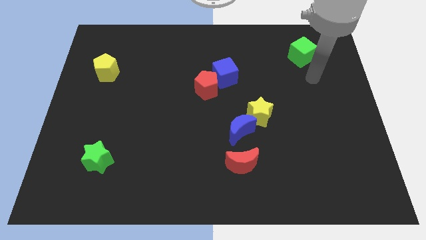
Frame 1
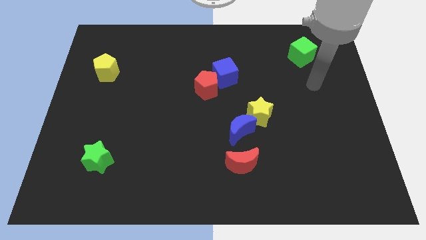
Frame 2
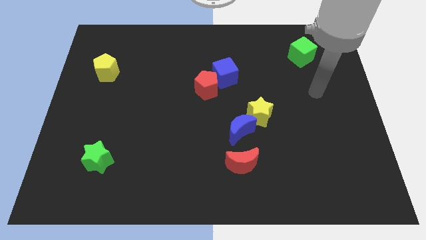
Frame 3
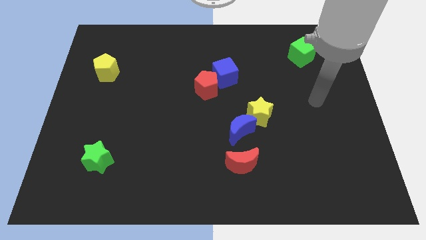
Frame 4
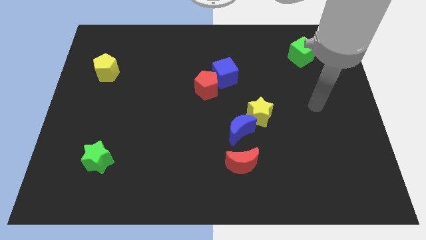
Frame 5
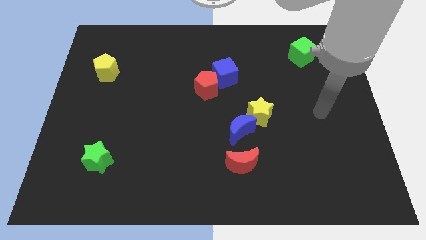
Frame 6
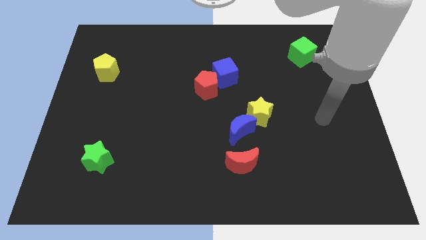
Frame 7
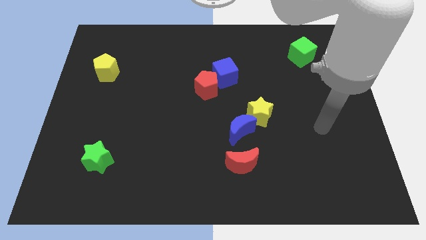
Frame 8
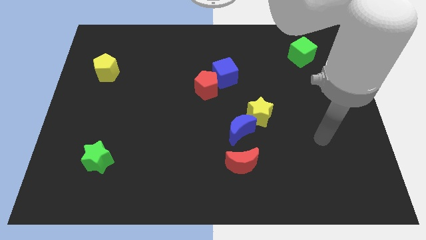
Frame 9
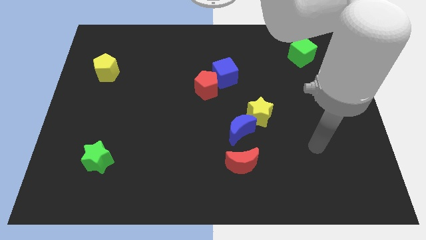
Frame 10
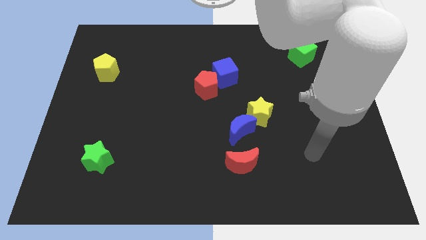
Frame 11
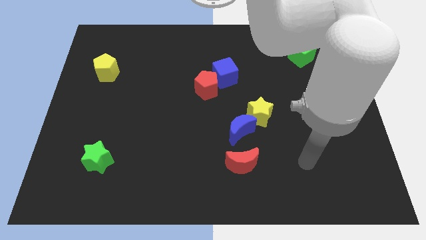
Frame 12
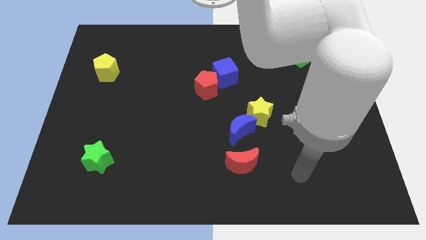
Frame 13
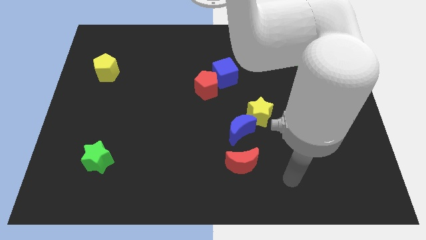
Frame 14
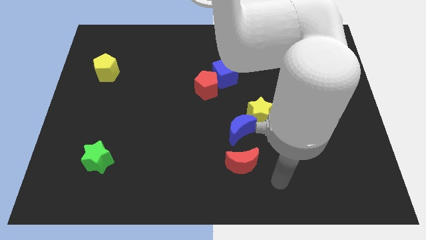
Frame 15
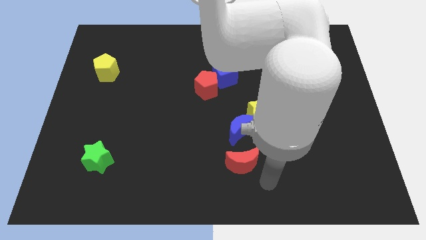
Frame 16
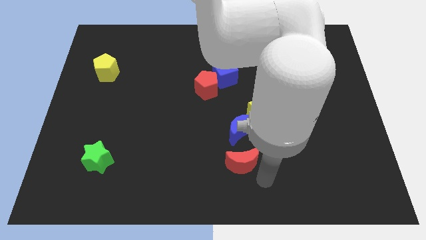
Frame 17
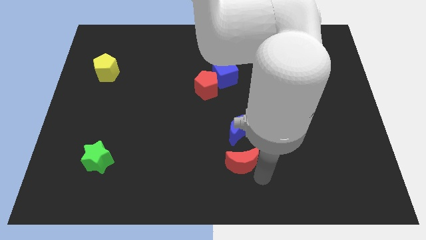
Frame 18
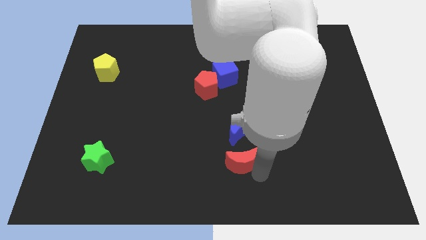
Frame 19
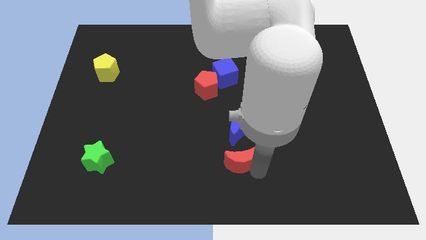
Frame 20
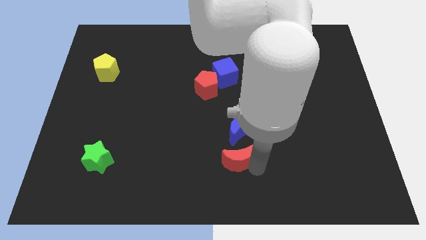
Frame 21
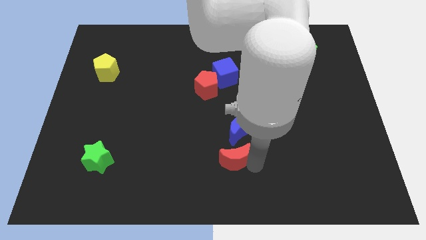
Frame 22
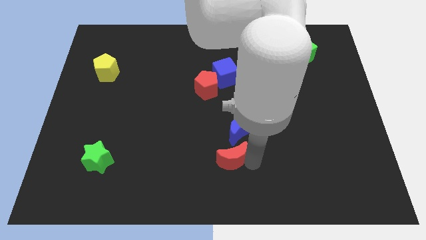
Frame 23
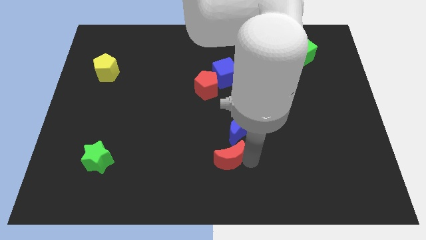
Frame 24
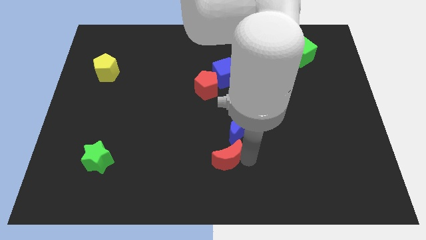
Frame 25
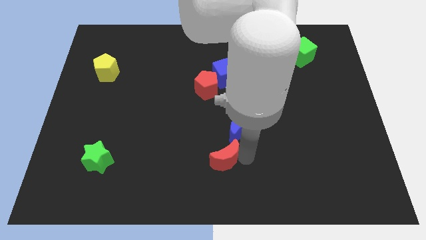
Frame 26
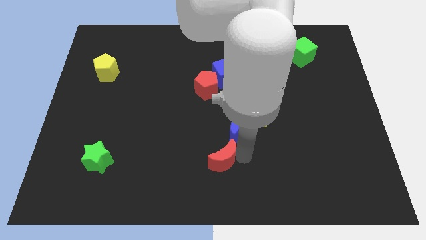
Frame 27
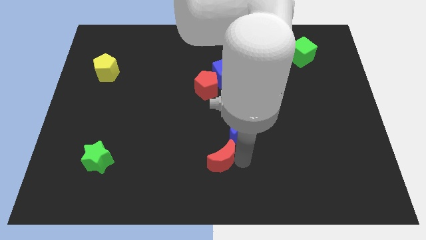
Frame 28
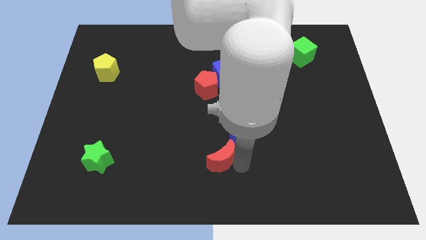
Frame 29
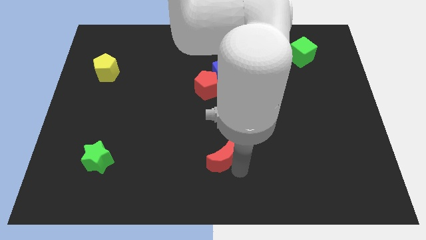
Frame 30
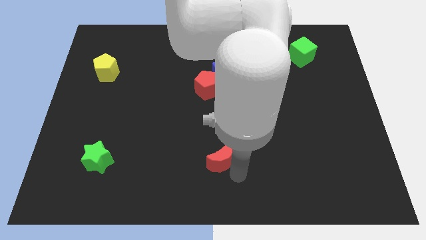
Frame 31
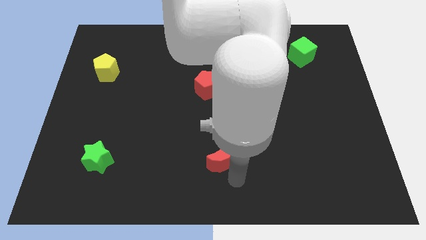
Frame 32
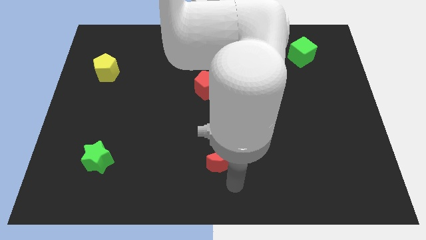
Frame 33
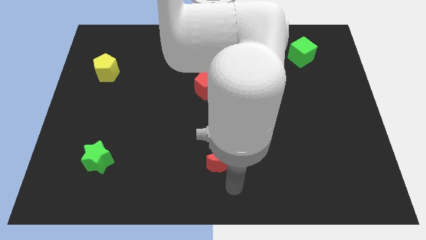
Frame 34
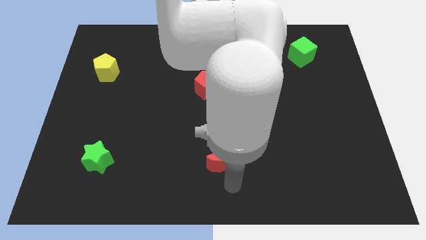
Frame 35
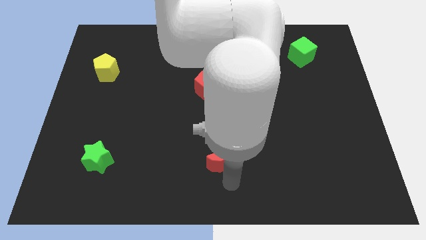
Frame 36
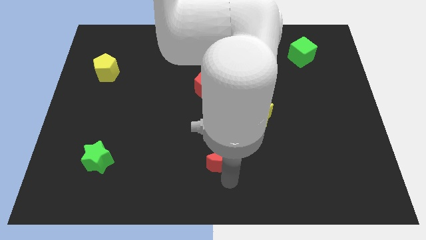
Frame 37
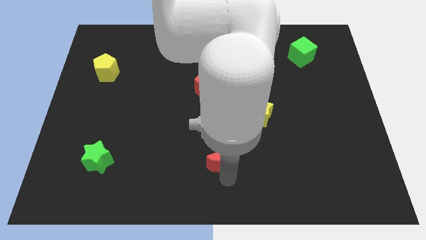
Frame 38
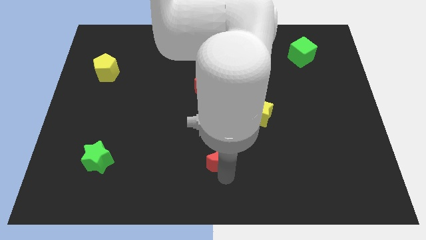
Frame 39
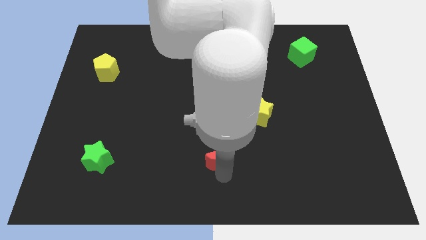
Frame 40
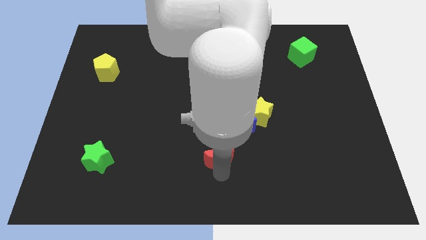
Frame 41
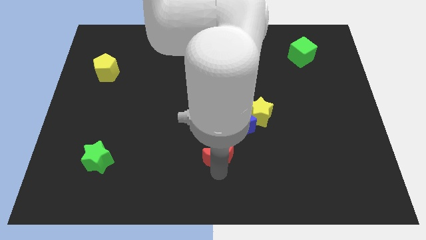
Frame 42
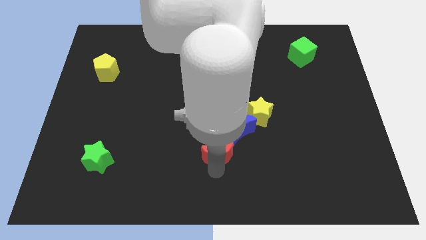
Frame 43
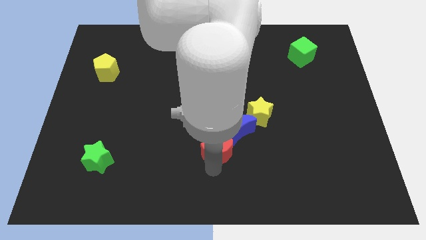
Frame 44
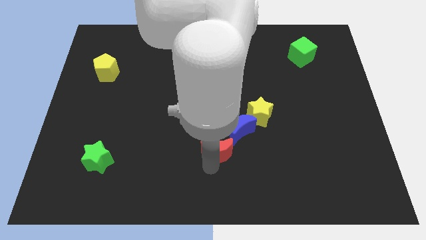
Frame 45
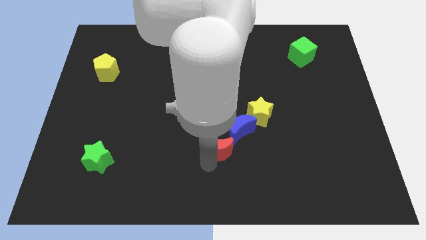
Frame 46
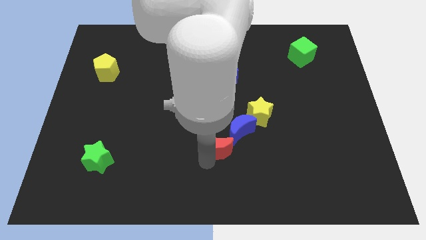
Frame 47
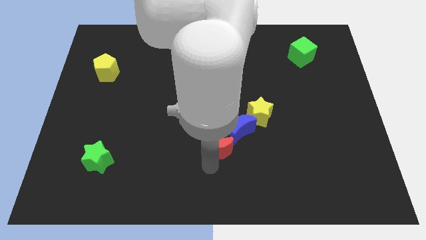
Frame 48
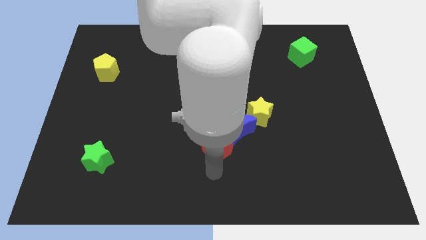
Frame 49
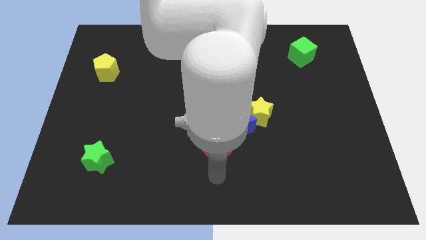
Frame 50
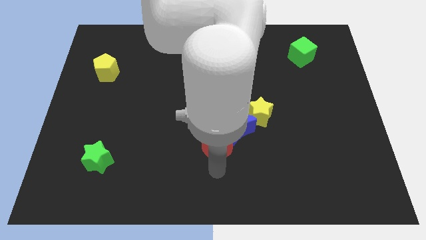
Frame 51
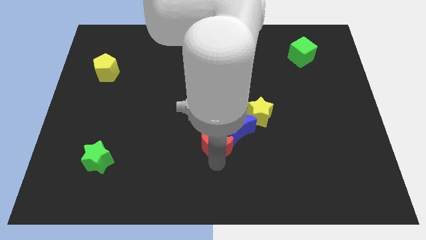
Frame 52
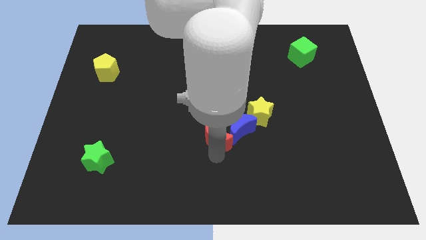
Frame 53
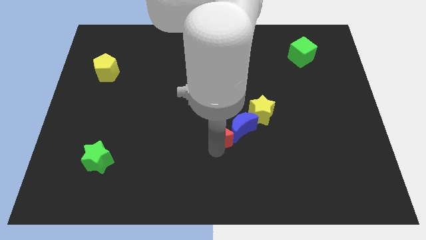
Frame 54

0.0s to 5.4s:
move the red moon diagonally up and to the left of the blue moon

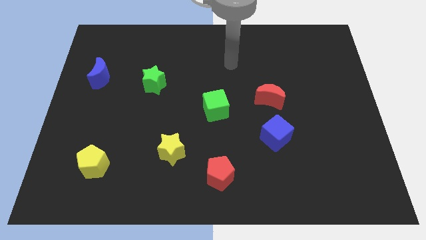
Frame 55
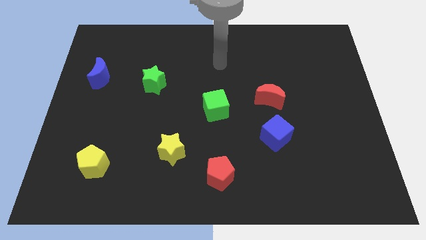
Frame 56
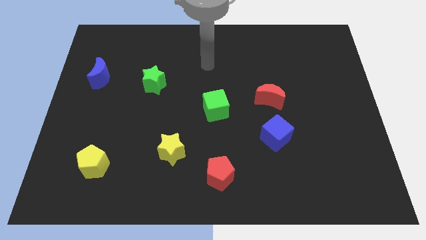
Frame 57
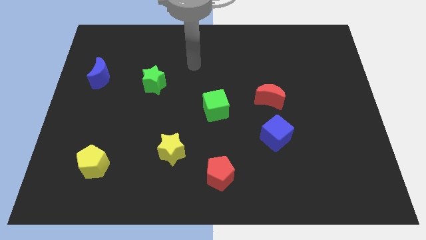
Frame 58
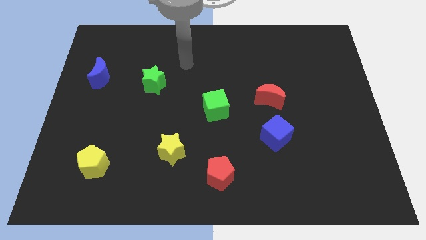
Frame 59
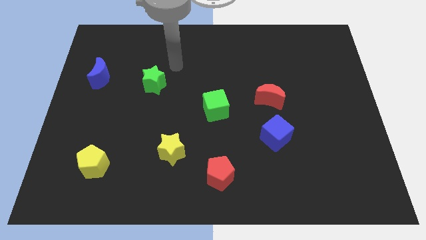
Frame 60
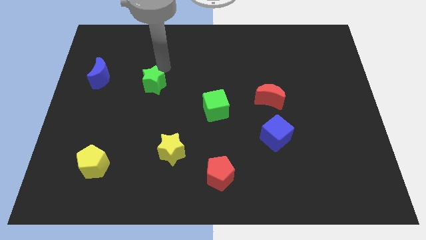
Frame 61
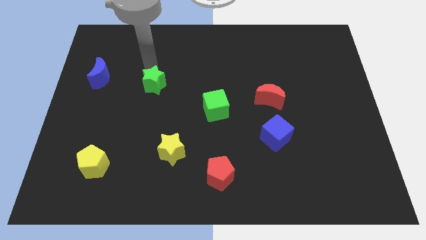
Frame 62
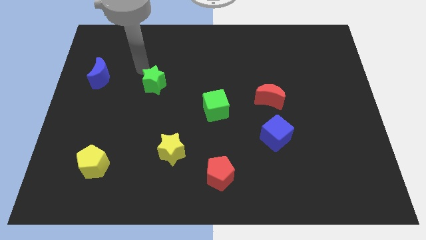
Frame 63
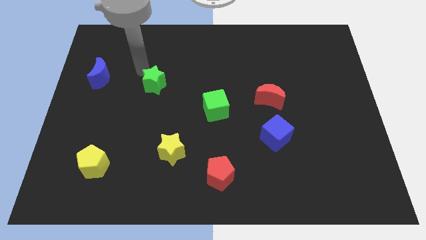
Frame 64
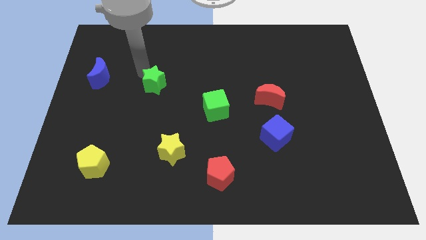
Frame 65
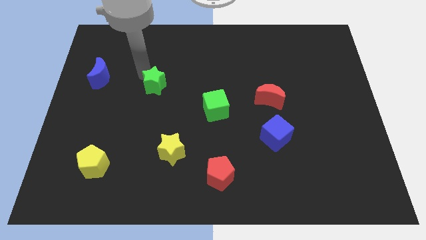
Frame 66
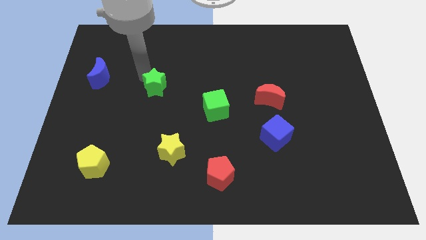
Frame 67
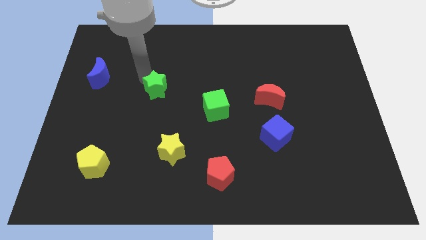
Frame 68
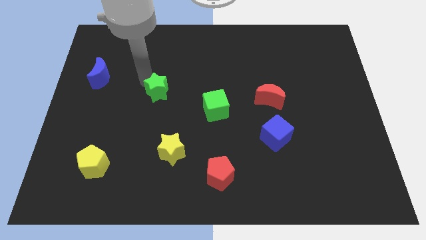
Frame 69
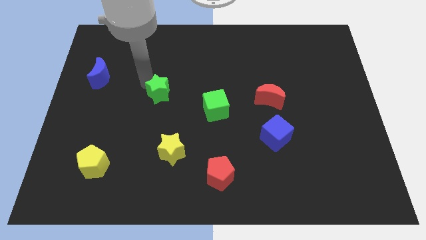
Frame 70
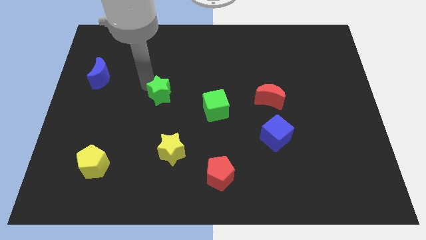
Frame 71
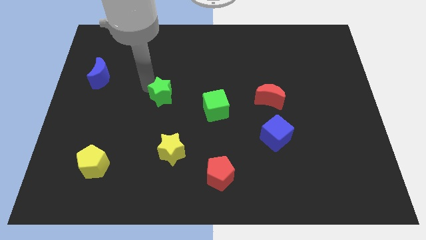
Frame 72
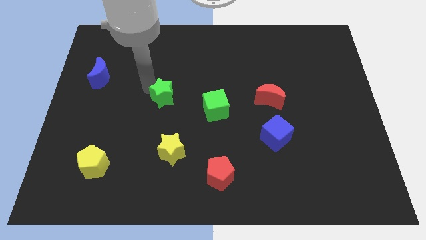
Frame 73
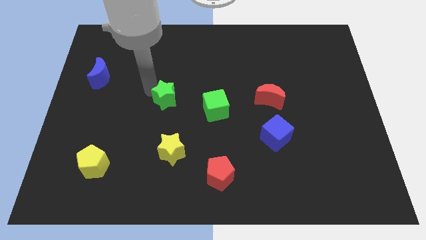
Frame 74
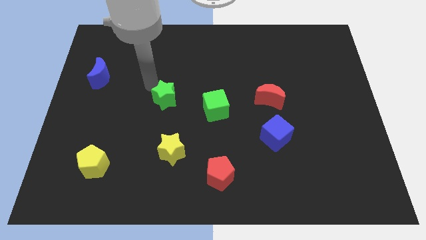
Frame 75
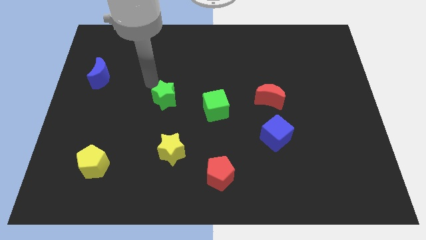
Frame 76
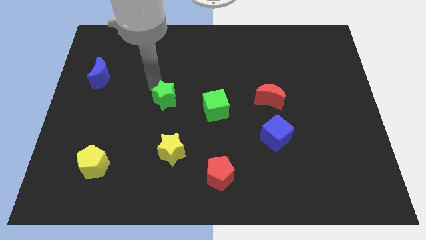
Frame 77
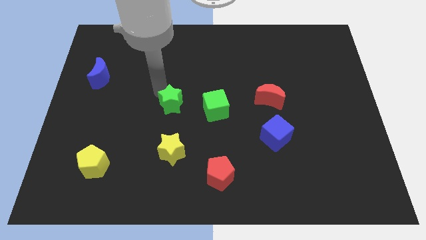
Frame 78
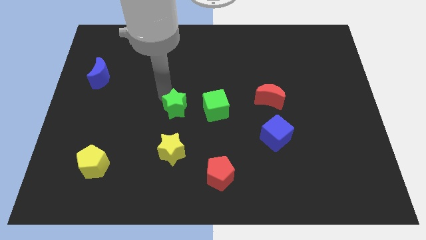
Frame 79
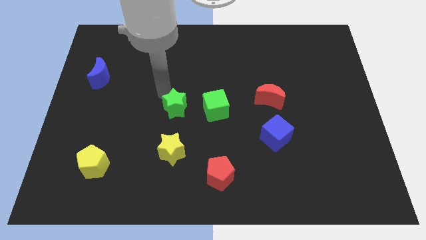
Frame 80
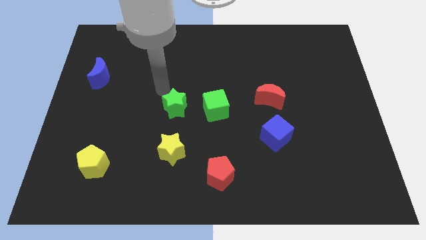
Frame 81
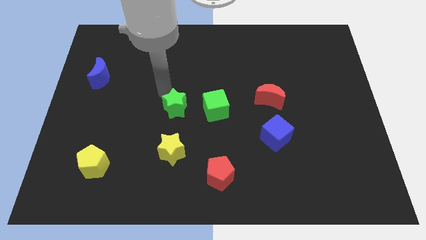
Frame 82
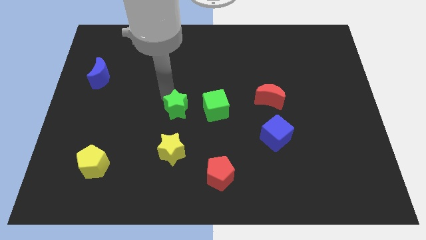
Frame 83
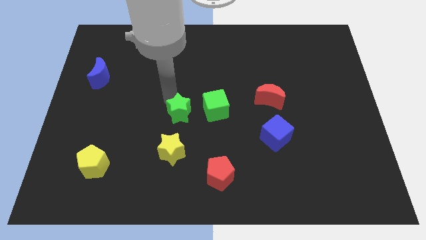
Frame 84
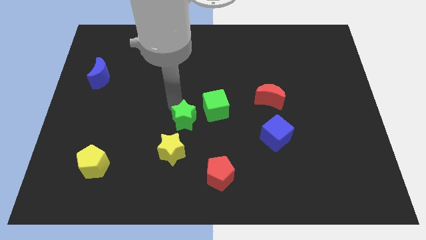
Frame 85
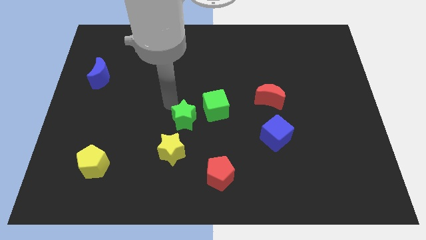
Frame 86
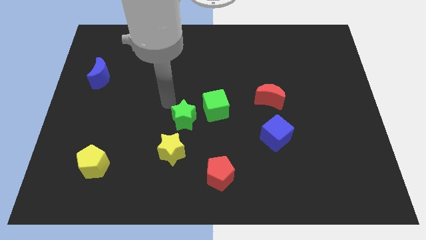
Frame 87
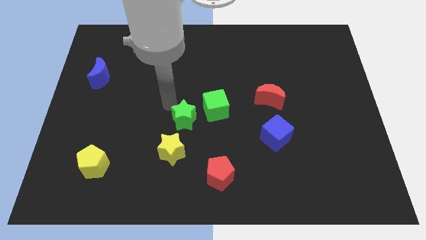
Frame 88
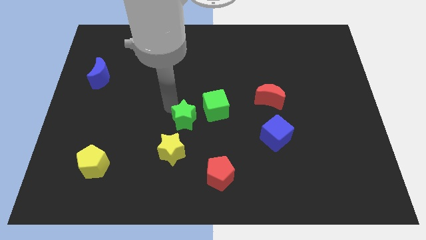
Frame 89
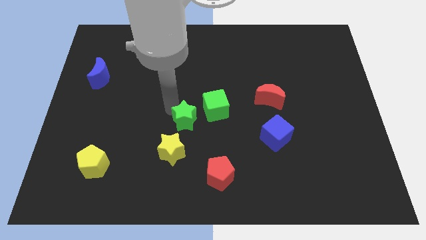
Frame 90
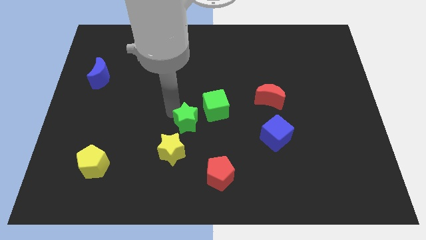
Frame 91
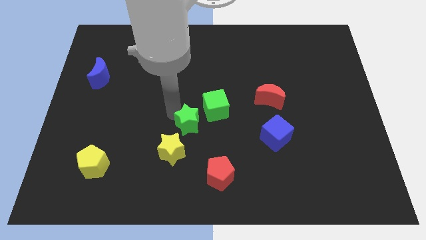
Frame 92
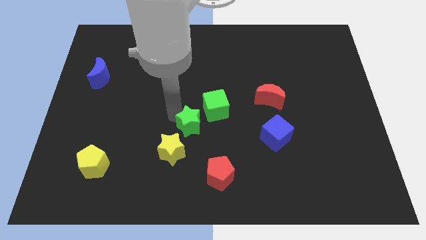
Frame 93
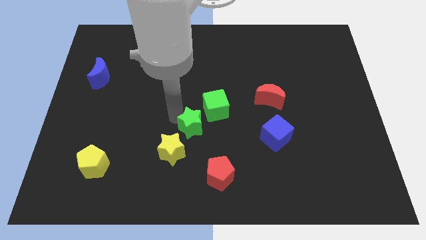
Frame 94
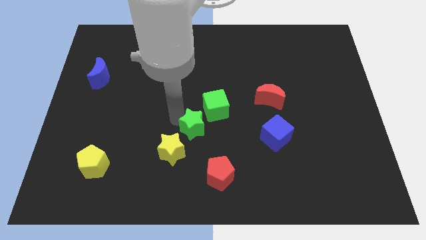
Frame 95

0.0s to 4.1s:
put the green star to the bottom of the green cube
